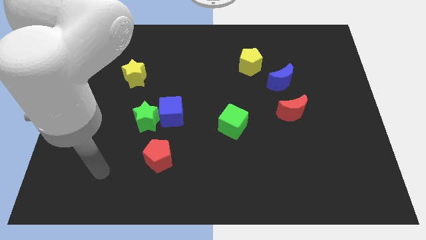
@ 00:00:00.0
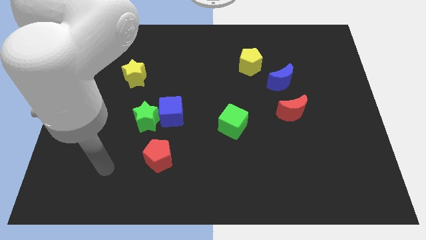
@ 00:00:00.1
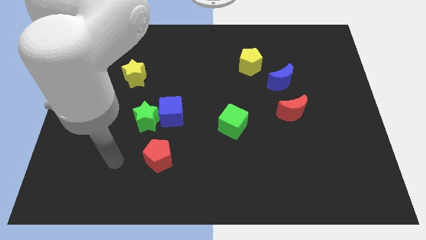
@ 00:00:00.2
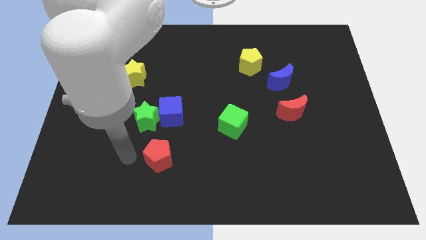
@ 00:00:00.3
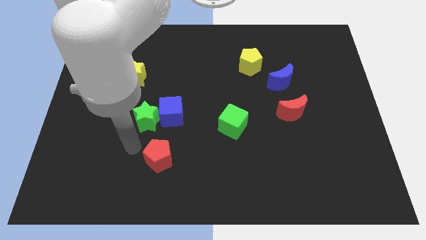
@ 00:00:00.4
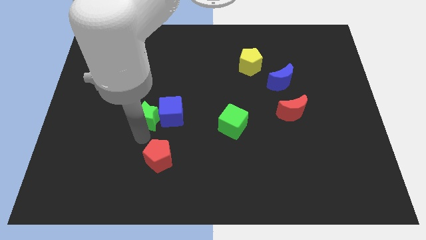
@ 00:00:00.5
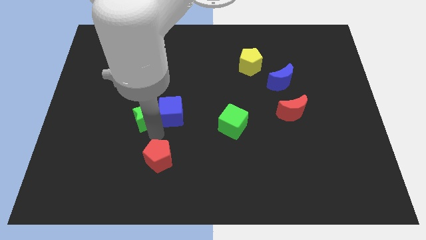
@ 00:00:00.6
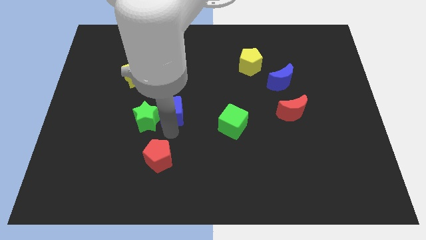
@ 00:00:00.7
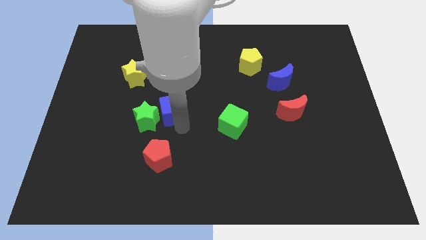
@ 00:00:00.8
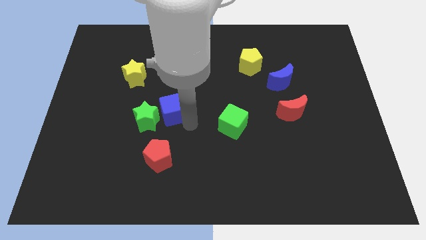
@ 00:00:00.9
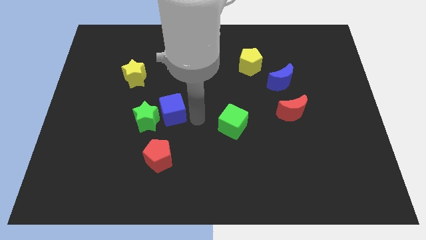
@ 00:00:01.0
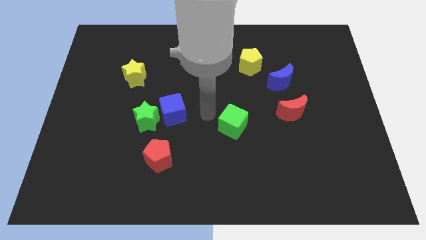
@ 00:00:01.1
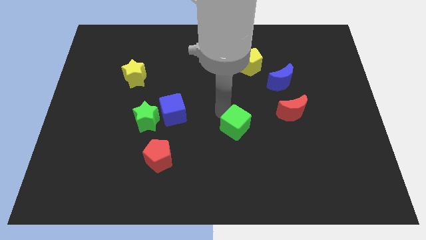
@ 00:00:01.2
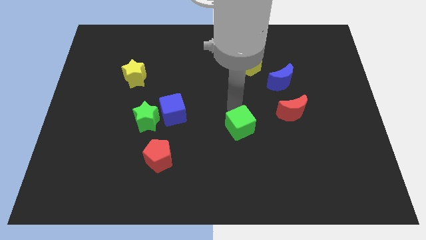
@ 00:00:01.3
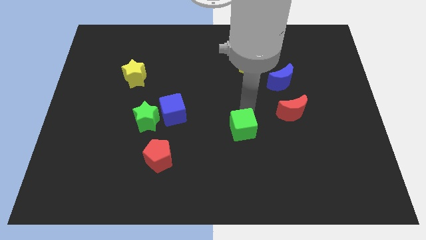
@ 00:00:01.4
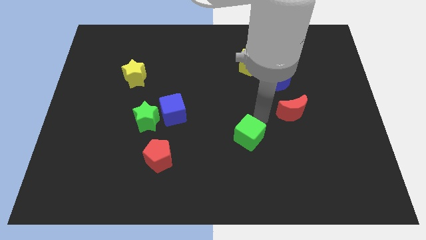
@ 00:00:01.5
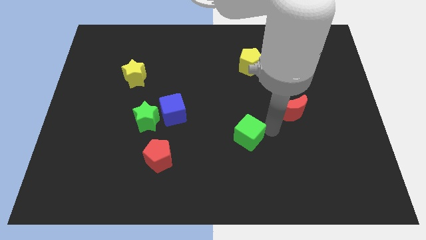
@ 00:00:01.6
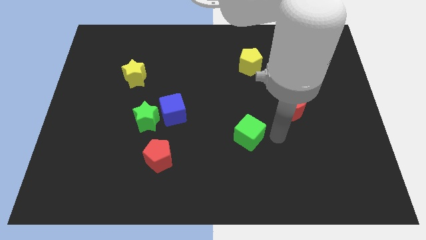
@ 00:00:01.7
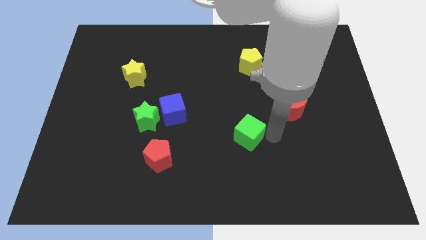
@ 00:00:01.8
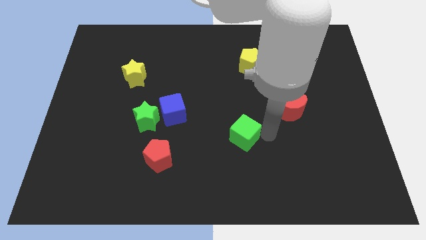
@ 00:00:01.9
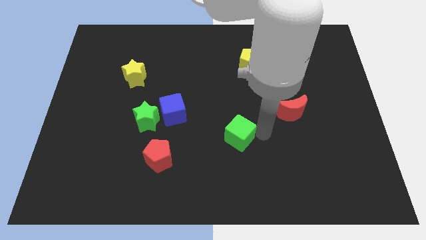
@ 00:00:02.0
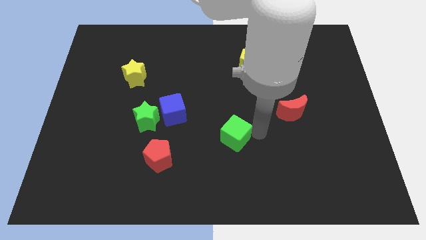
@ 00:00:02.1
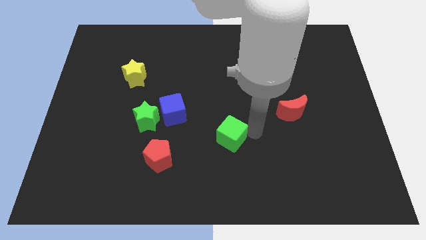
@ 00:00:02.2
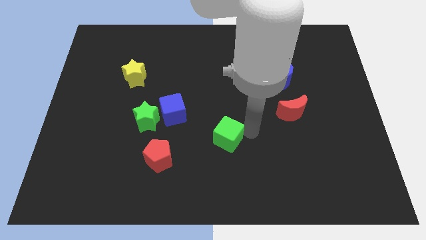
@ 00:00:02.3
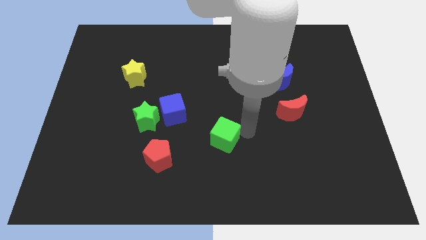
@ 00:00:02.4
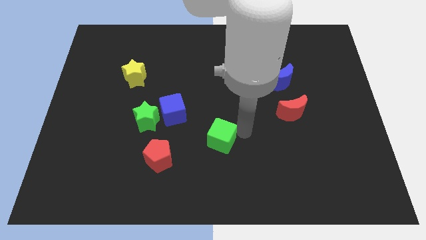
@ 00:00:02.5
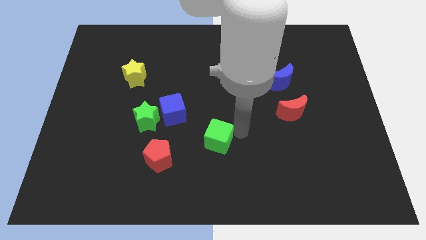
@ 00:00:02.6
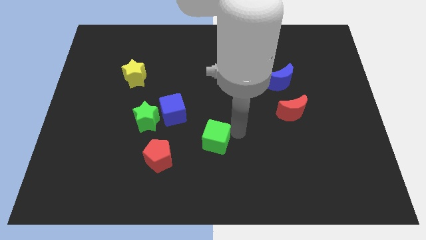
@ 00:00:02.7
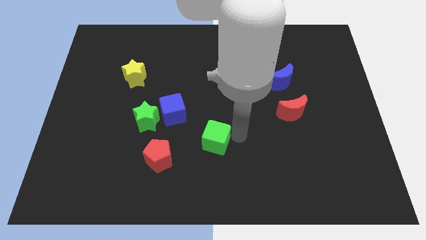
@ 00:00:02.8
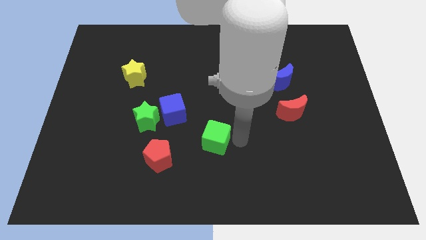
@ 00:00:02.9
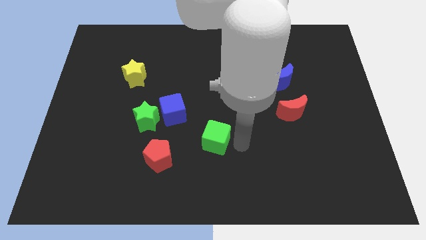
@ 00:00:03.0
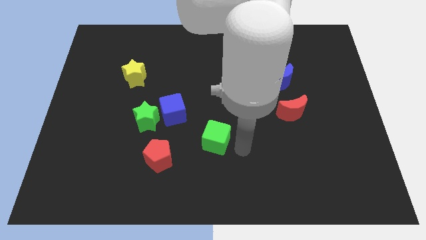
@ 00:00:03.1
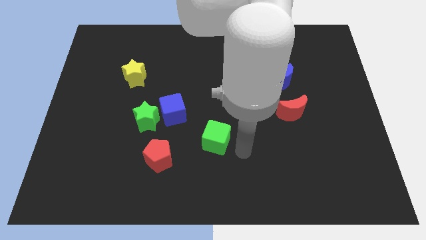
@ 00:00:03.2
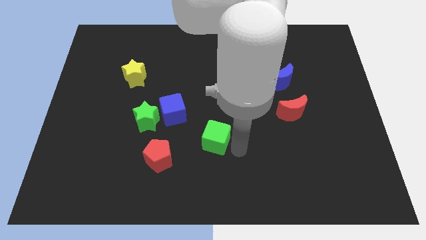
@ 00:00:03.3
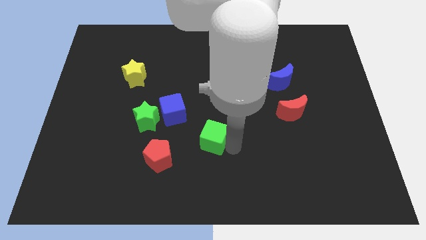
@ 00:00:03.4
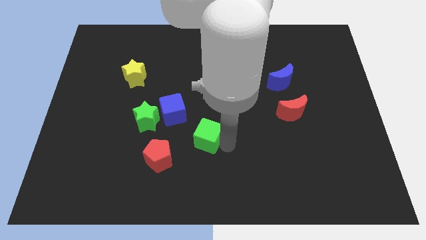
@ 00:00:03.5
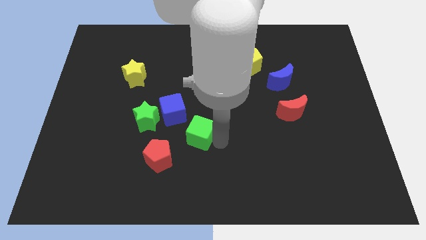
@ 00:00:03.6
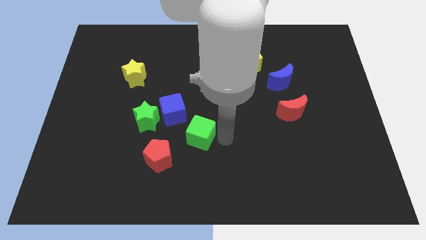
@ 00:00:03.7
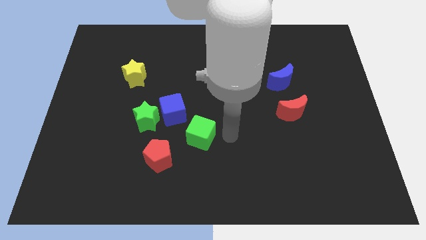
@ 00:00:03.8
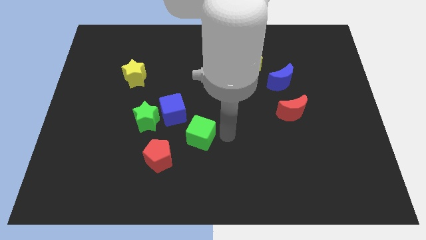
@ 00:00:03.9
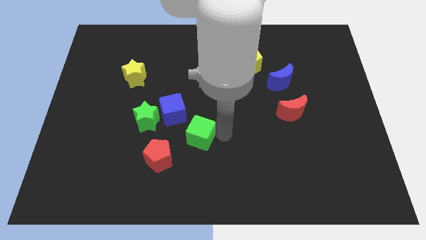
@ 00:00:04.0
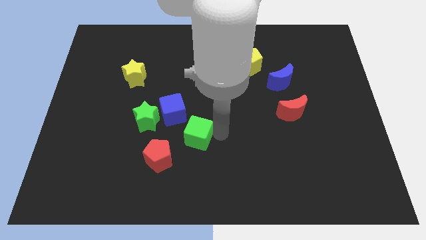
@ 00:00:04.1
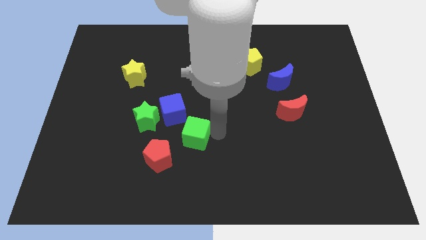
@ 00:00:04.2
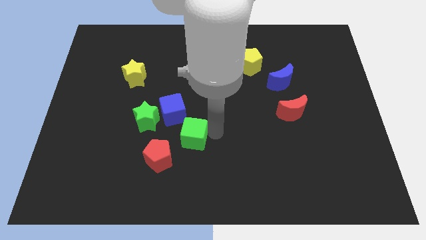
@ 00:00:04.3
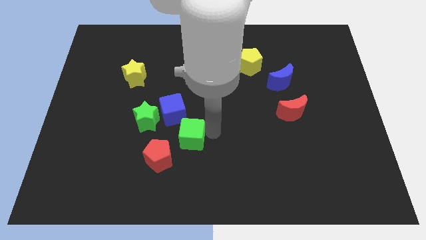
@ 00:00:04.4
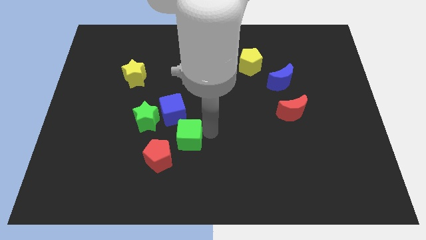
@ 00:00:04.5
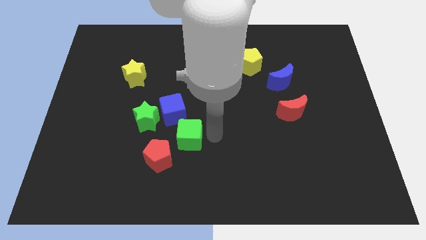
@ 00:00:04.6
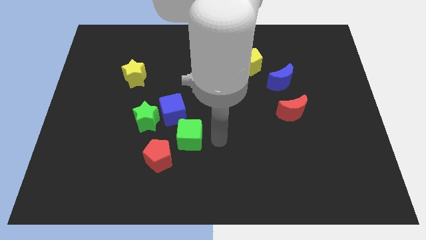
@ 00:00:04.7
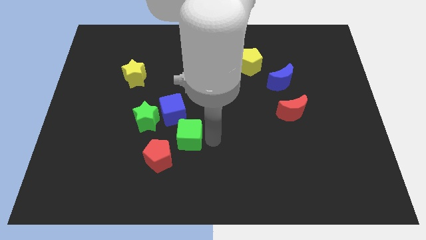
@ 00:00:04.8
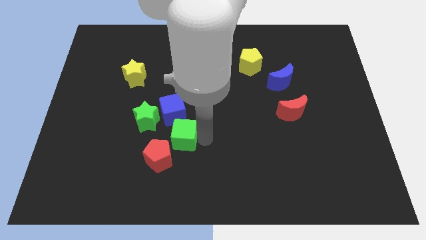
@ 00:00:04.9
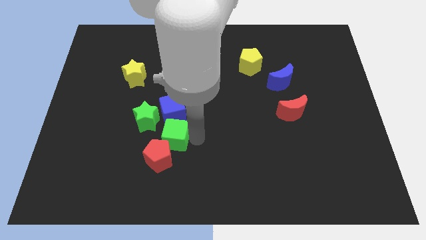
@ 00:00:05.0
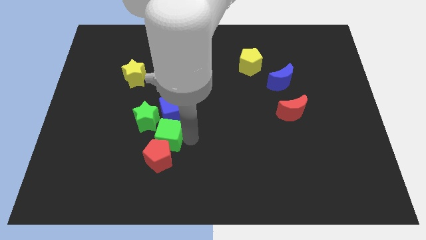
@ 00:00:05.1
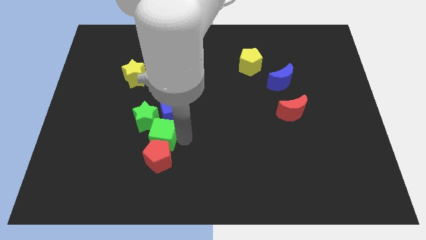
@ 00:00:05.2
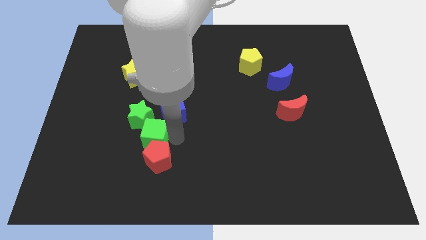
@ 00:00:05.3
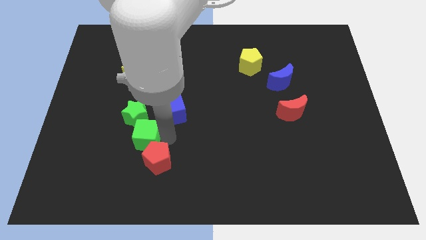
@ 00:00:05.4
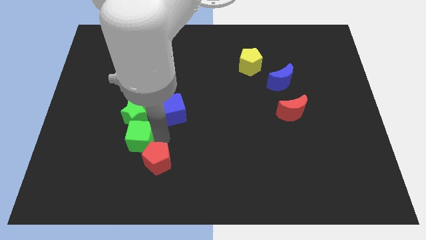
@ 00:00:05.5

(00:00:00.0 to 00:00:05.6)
slide the green cube left

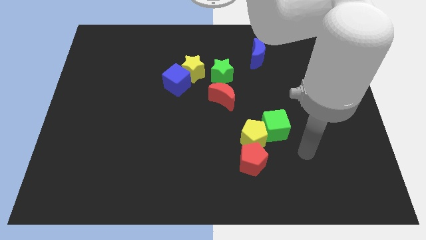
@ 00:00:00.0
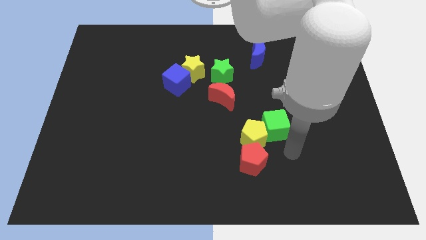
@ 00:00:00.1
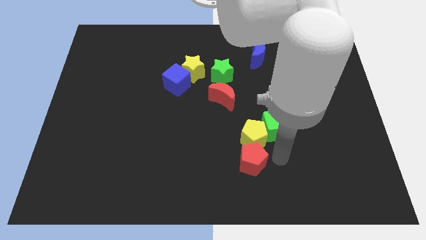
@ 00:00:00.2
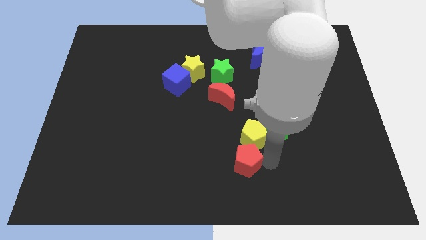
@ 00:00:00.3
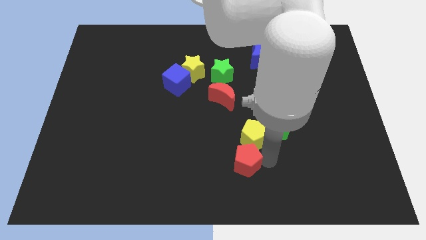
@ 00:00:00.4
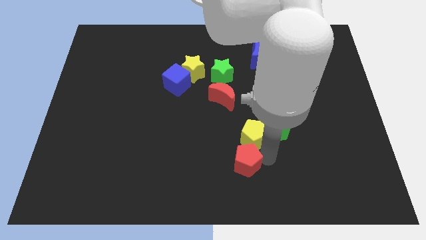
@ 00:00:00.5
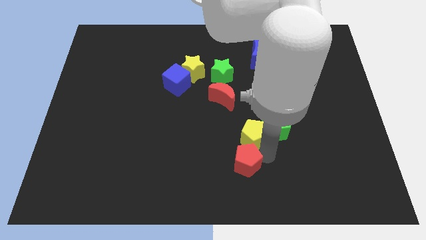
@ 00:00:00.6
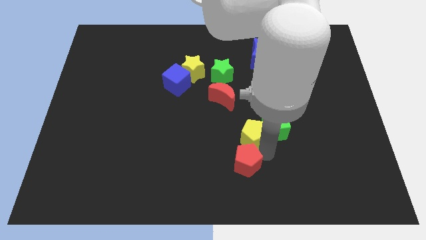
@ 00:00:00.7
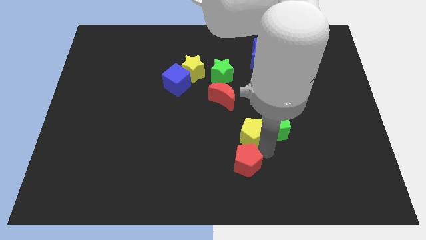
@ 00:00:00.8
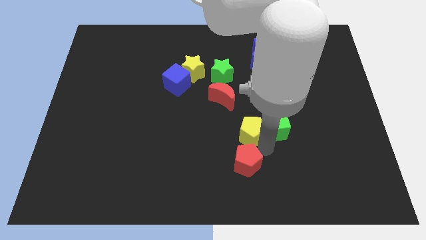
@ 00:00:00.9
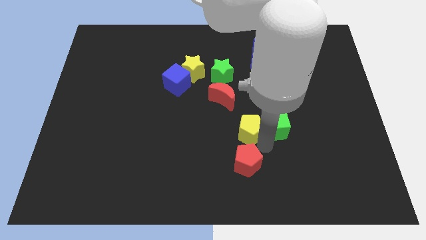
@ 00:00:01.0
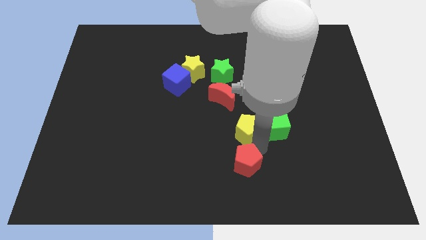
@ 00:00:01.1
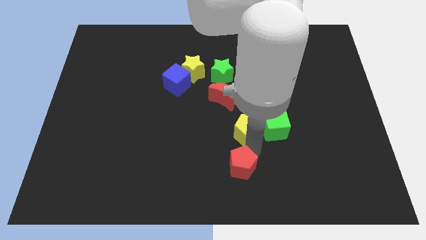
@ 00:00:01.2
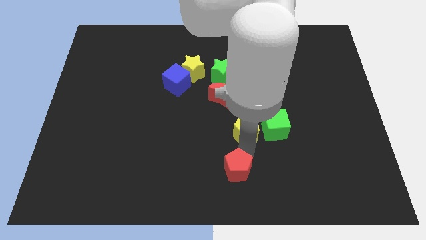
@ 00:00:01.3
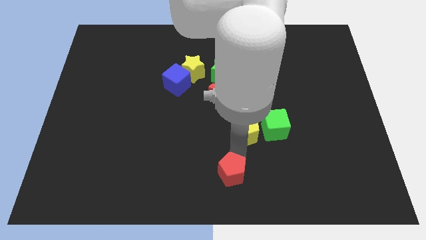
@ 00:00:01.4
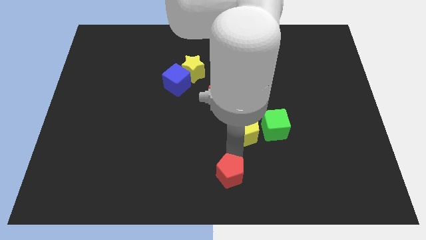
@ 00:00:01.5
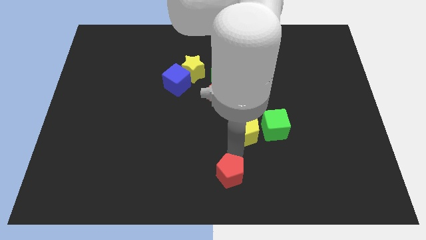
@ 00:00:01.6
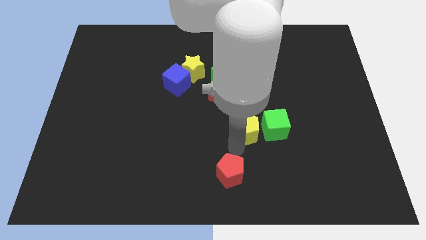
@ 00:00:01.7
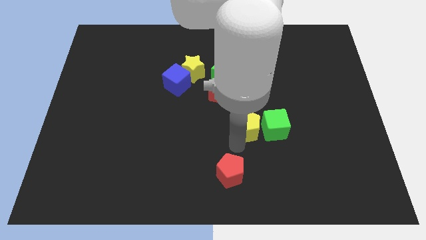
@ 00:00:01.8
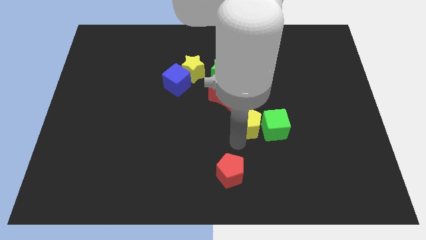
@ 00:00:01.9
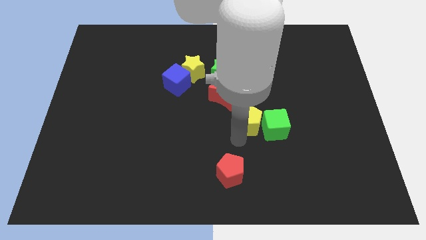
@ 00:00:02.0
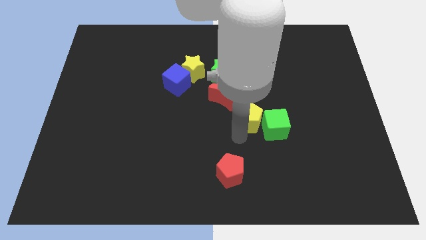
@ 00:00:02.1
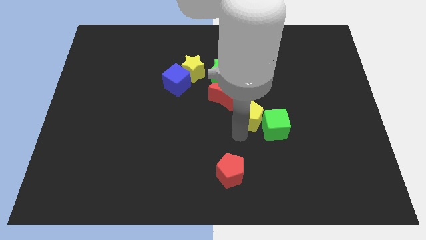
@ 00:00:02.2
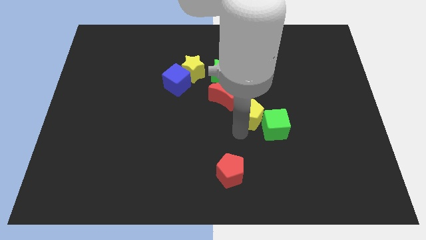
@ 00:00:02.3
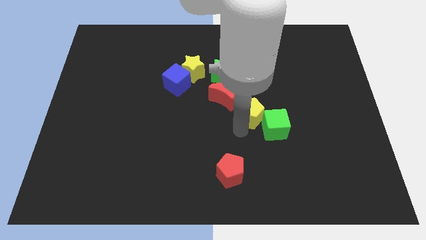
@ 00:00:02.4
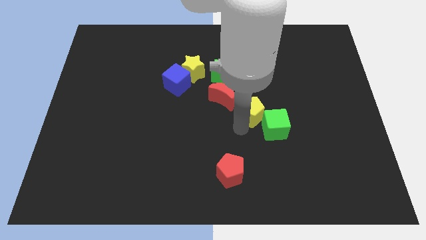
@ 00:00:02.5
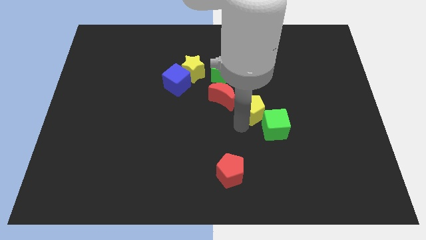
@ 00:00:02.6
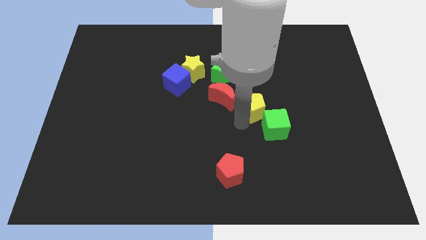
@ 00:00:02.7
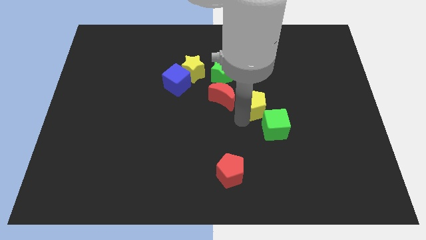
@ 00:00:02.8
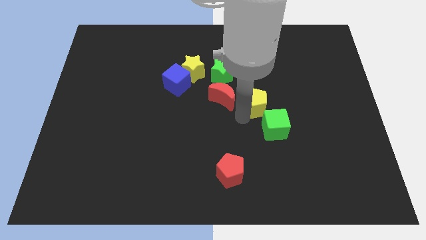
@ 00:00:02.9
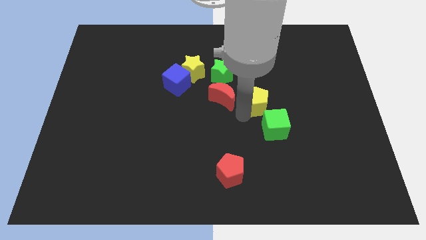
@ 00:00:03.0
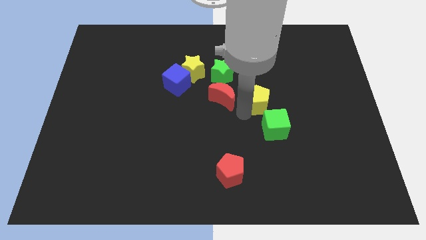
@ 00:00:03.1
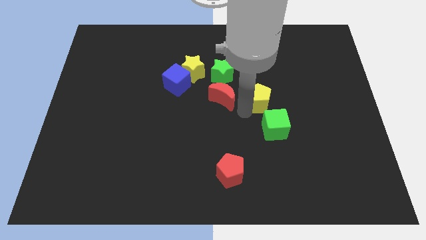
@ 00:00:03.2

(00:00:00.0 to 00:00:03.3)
push the yellow pentagon upwards and then to the right somewhat
